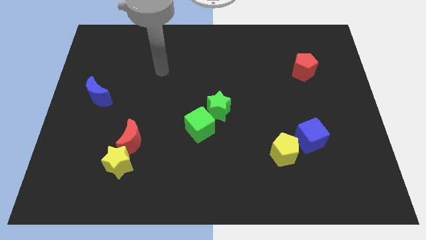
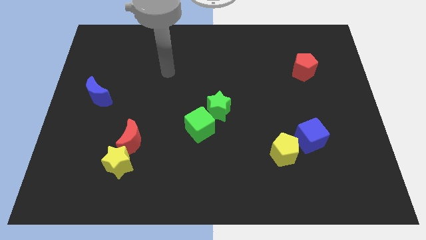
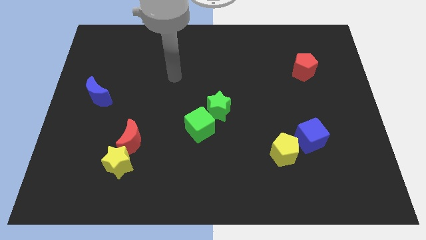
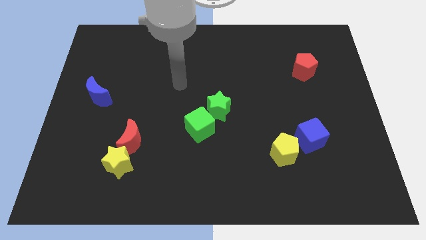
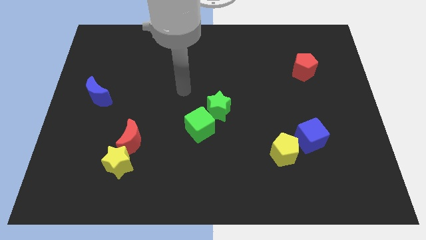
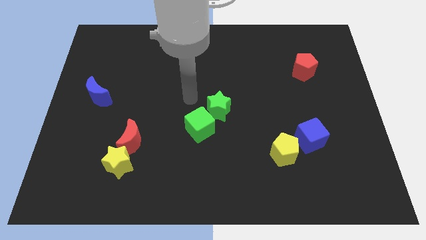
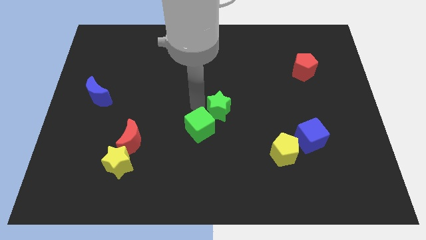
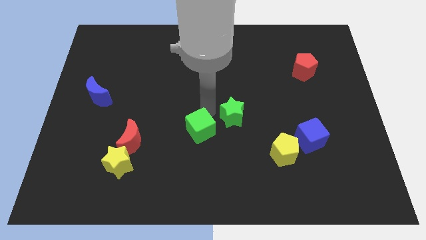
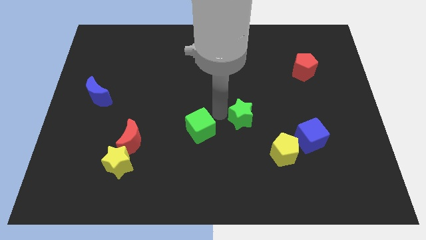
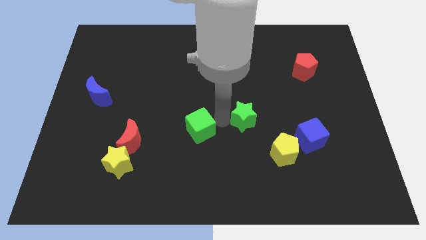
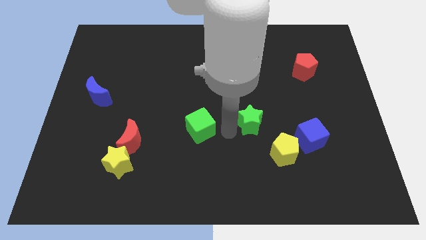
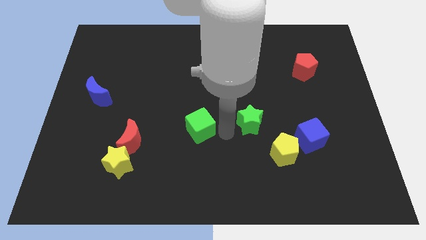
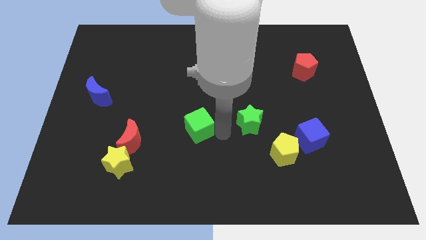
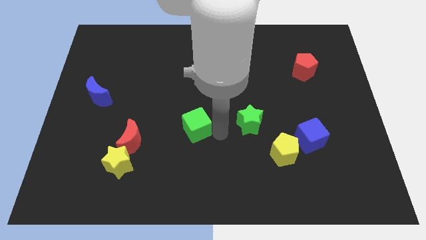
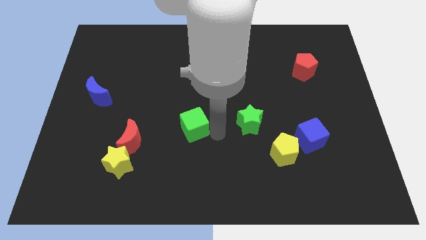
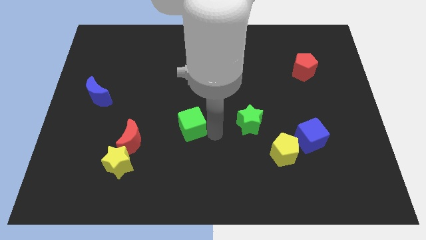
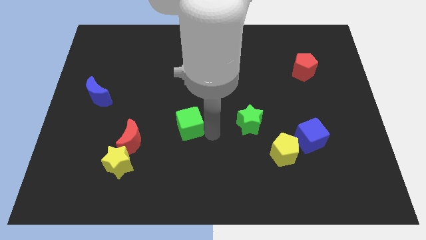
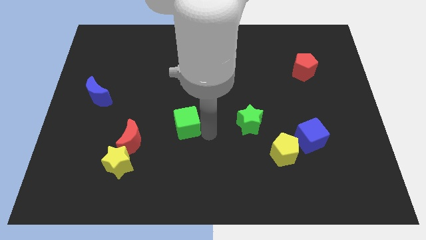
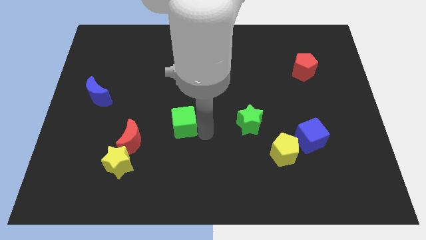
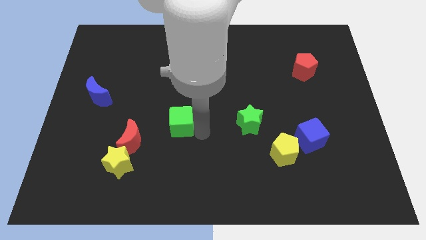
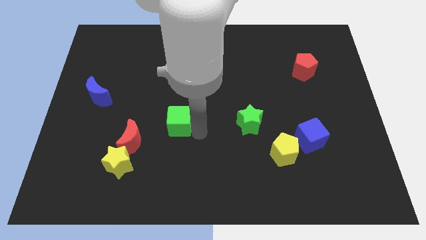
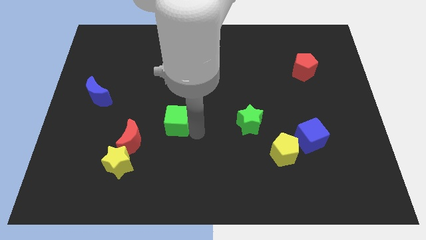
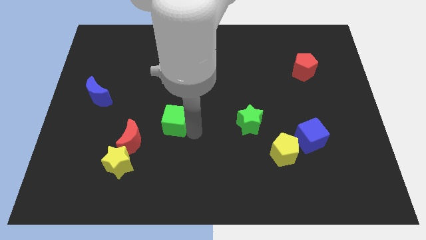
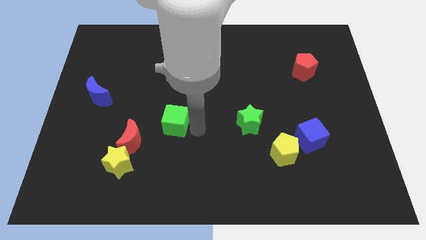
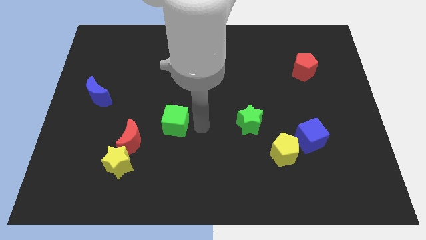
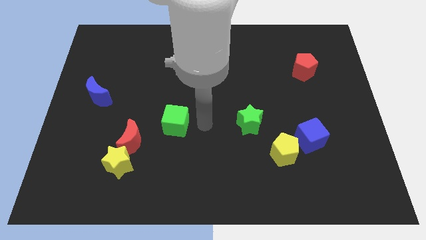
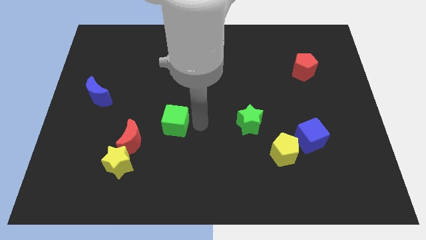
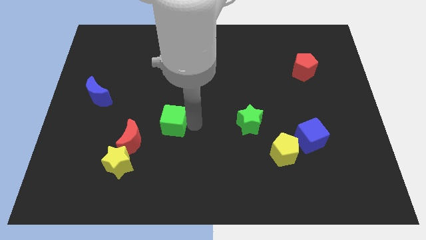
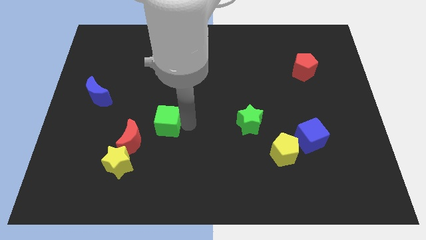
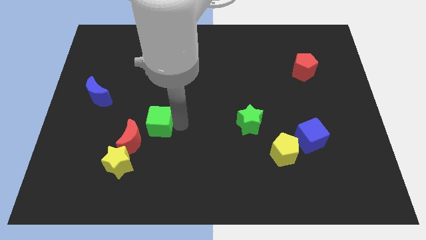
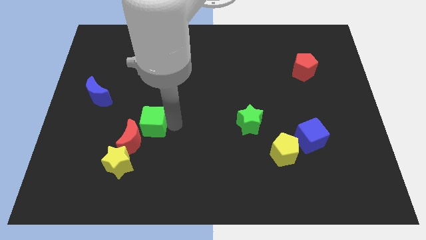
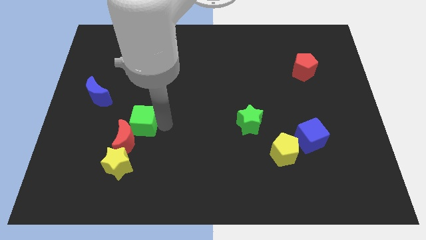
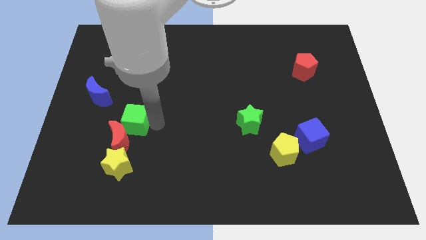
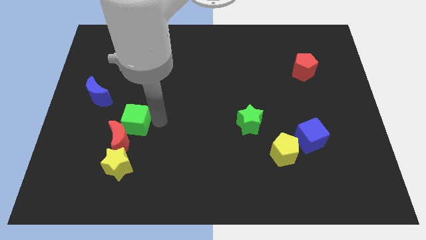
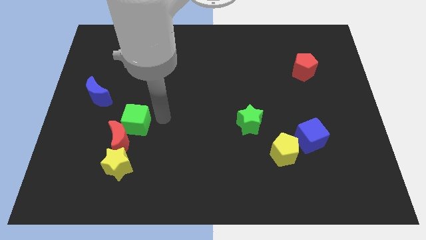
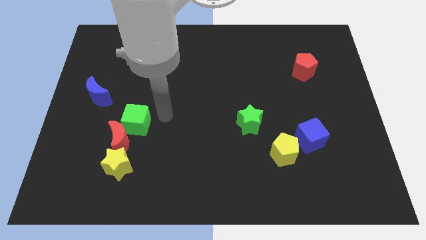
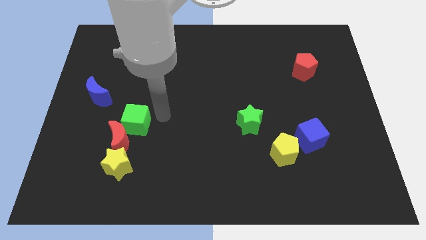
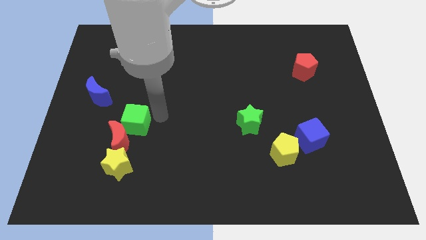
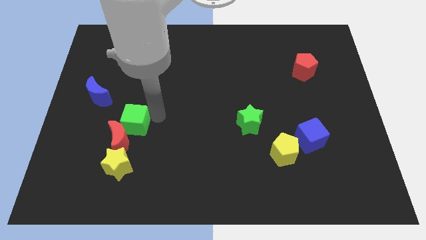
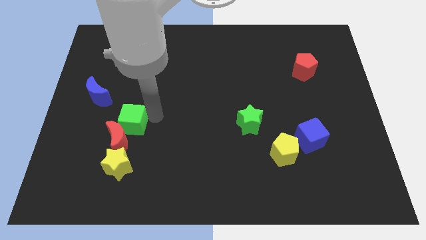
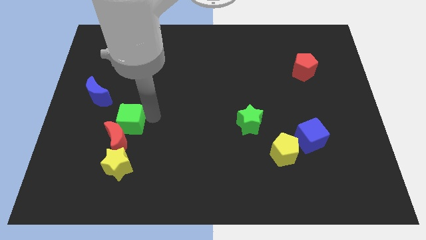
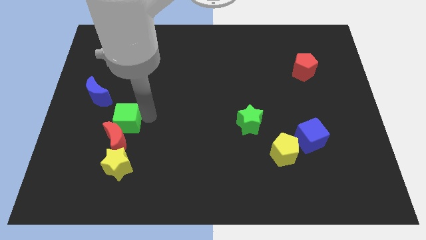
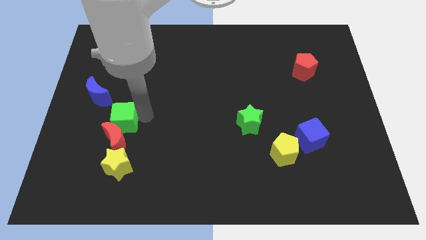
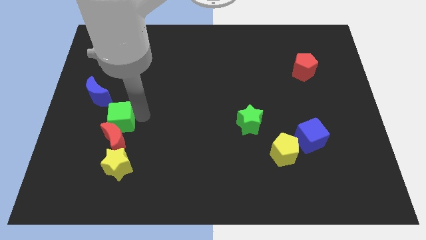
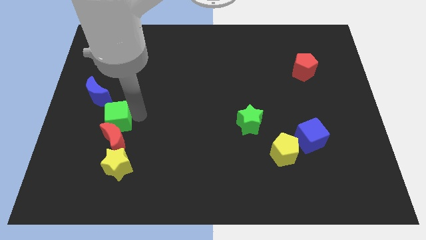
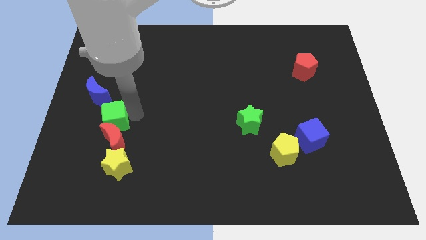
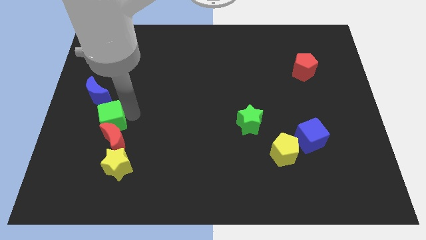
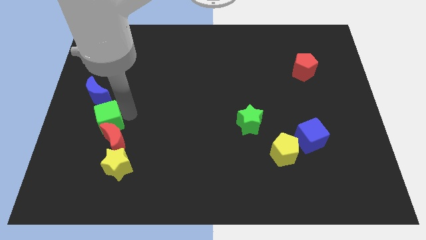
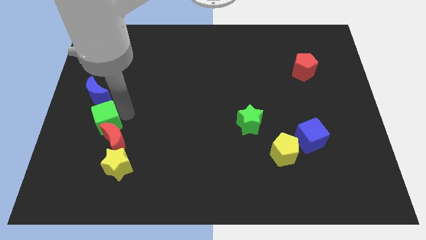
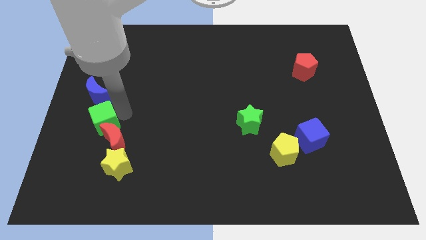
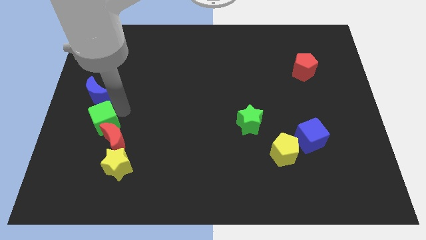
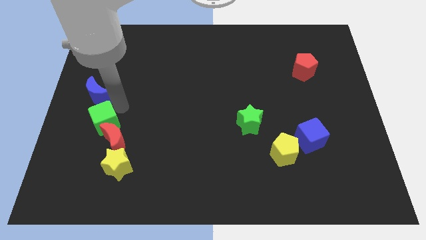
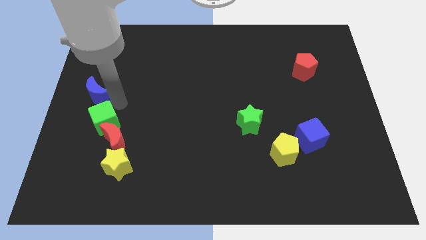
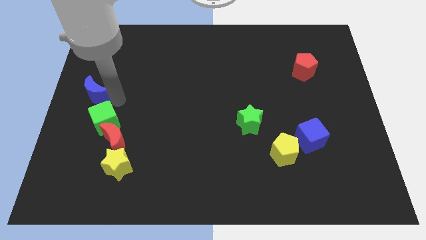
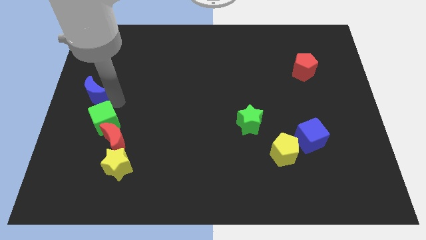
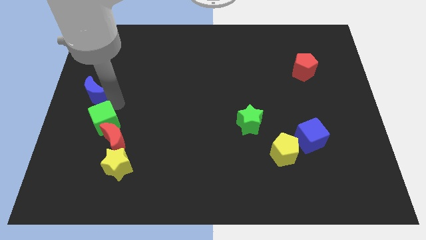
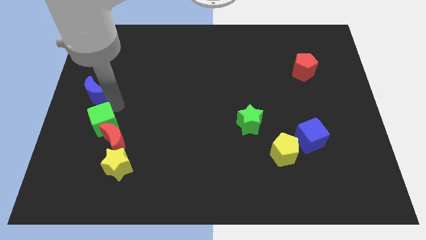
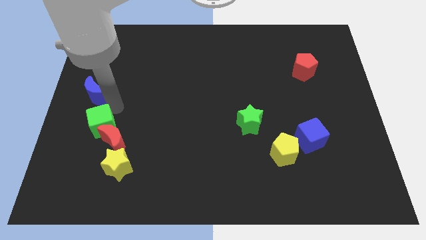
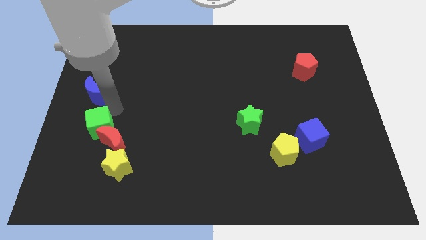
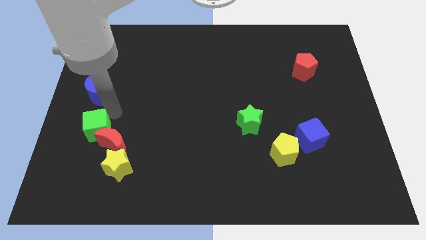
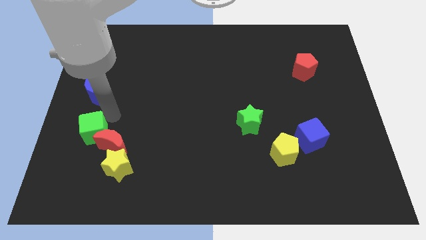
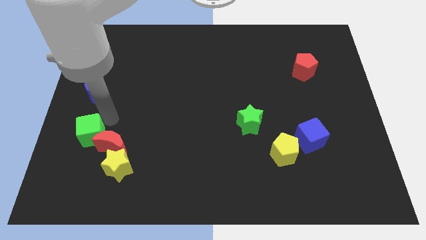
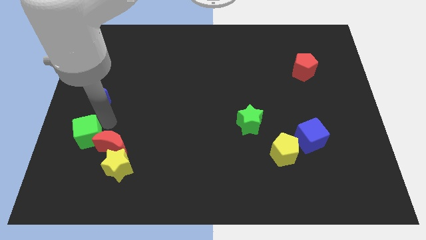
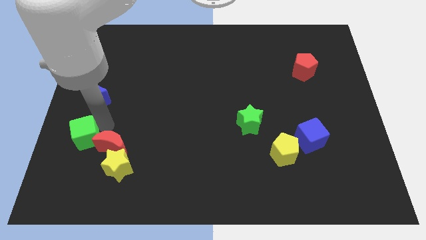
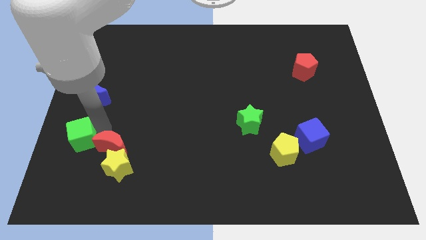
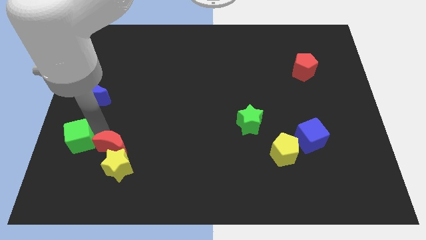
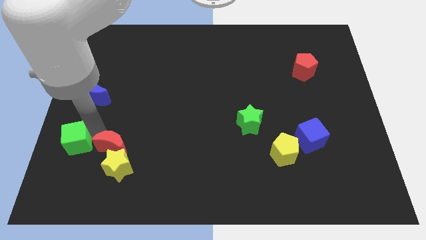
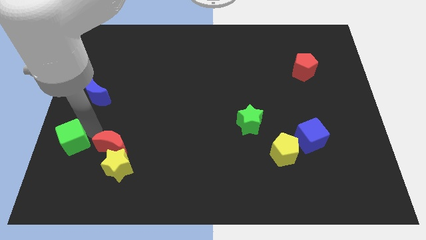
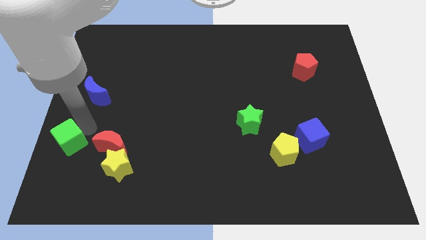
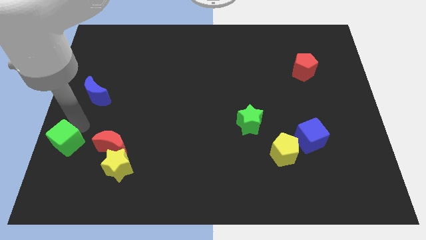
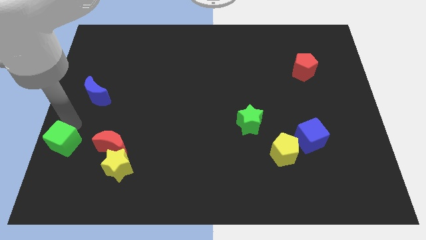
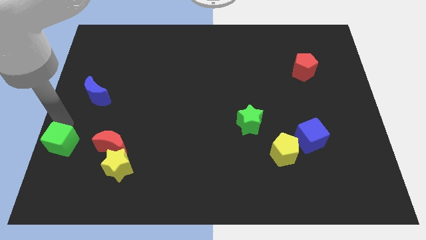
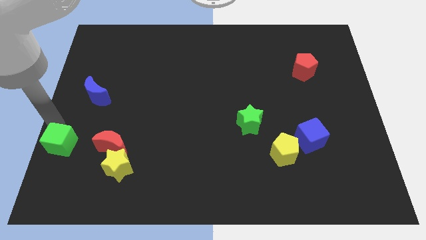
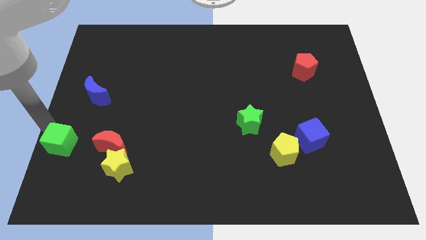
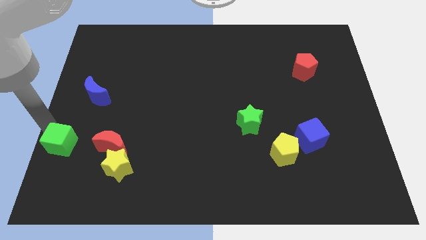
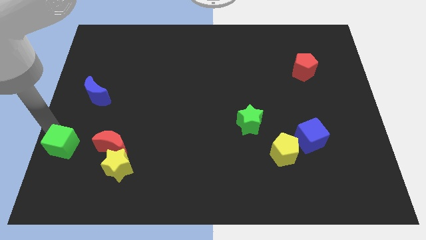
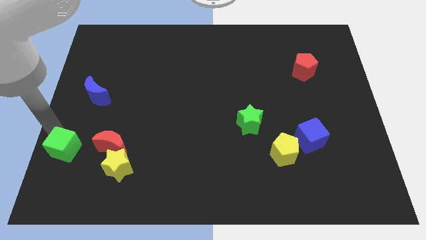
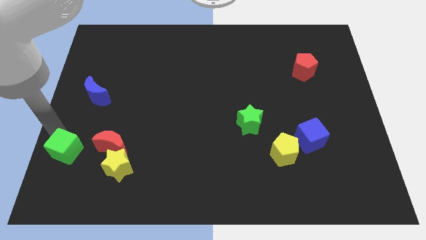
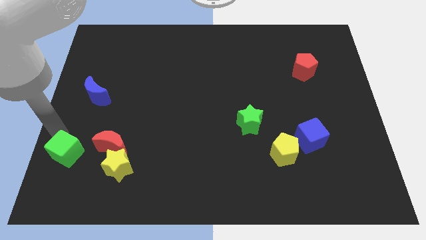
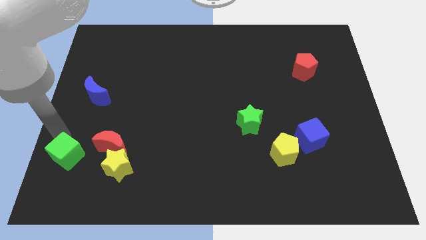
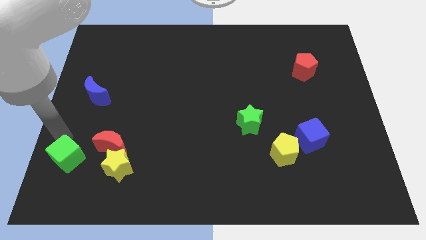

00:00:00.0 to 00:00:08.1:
put the green cube diagonally down and to the left of the red moon
